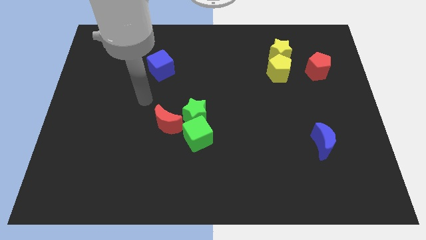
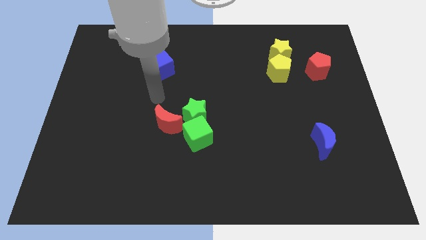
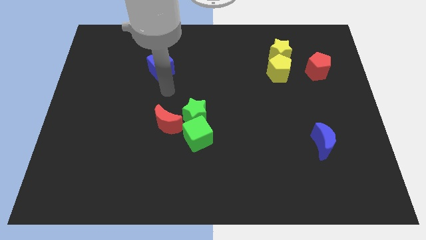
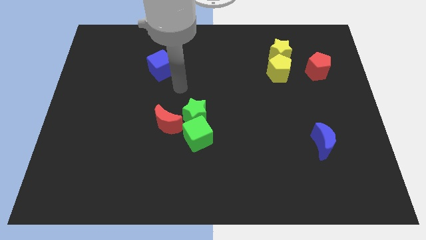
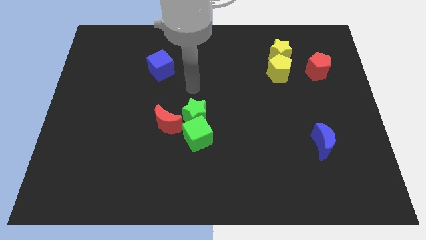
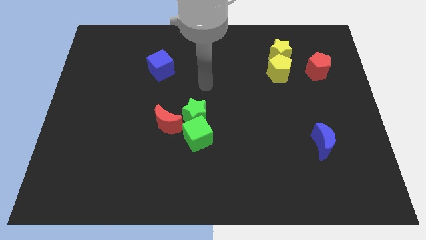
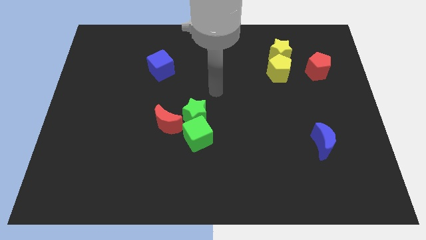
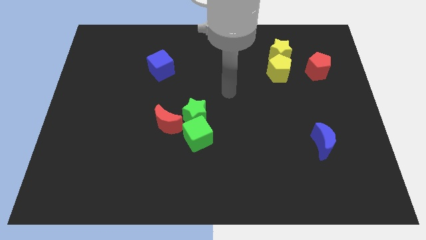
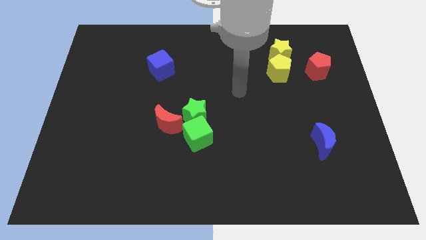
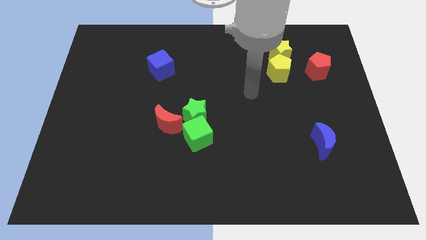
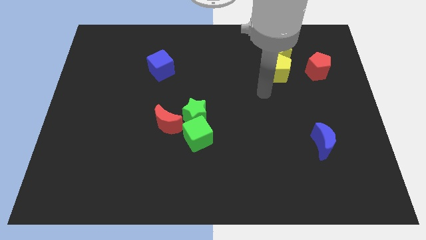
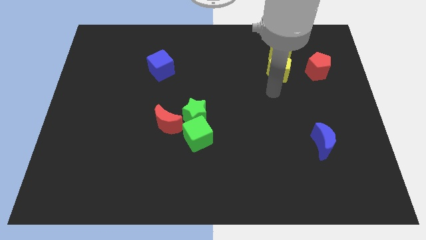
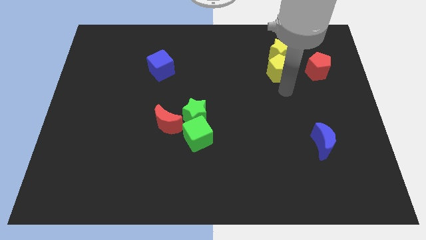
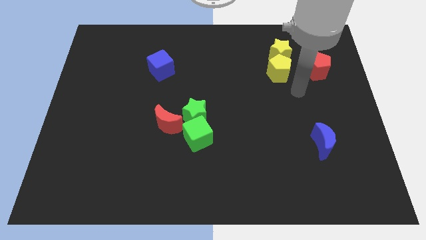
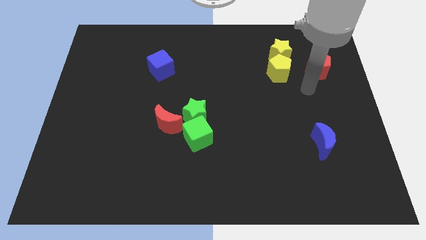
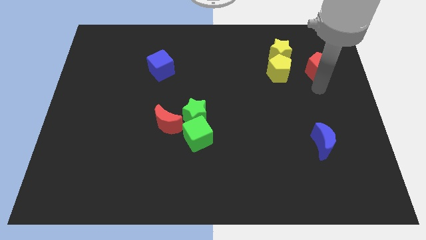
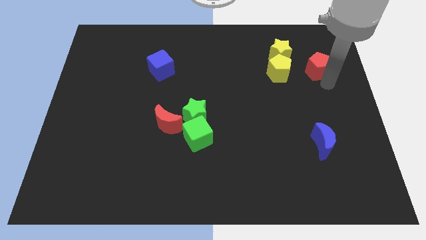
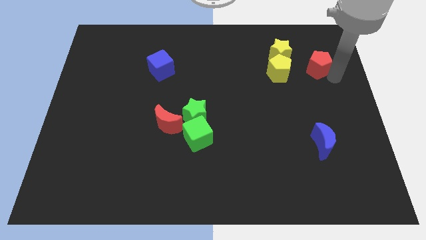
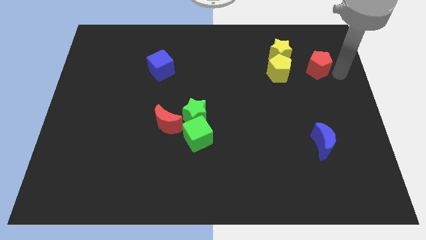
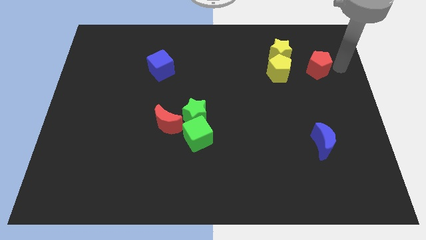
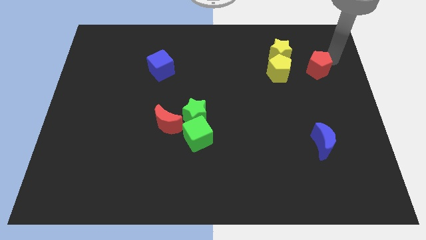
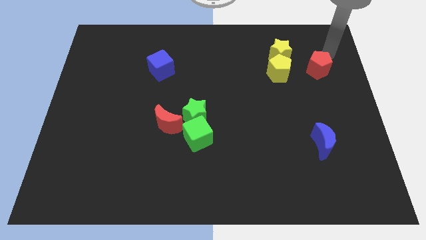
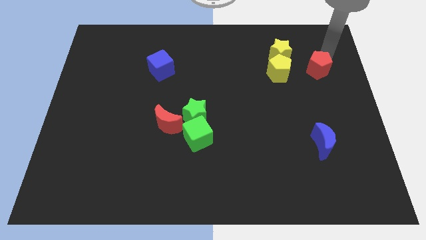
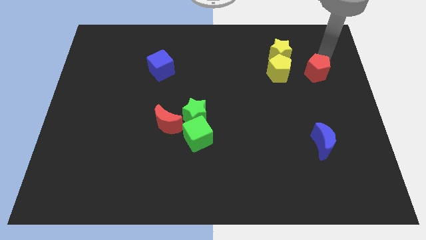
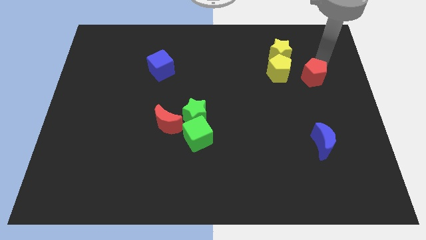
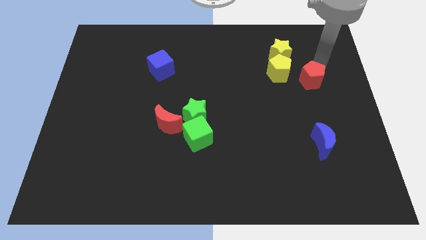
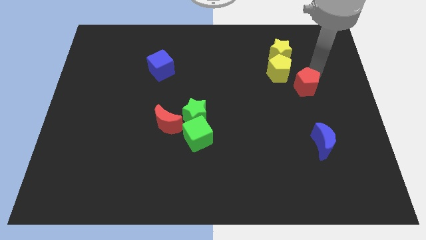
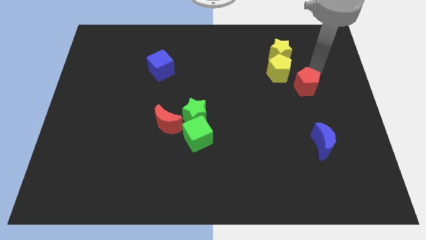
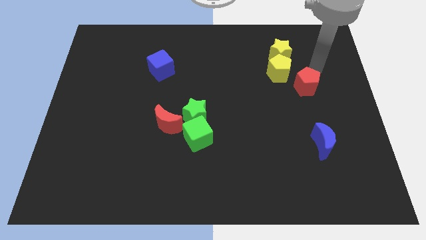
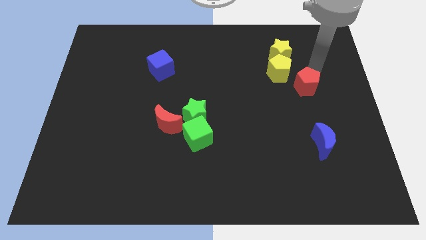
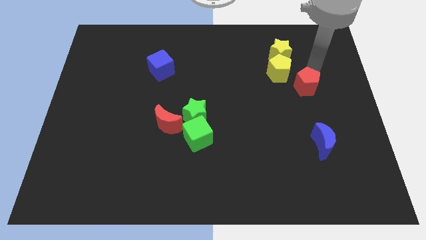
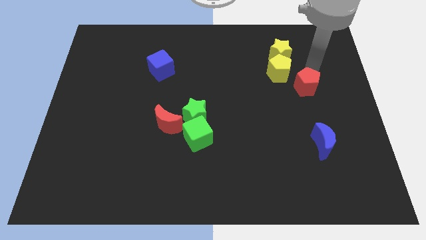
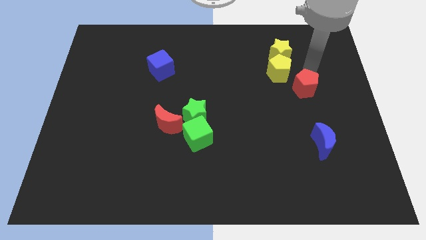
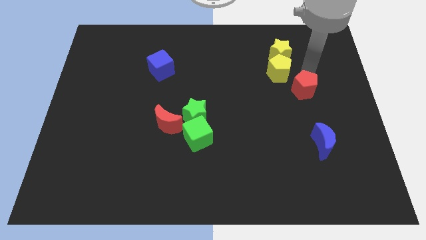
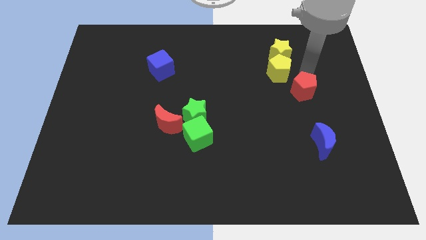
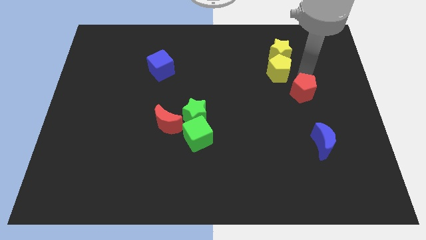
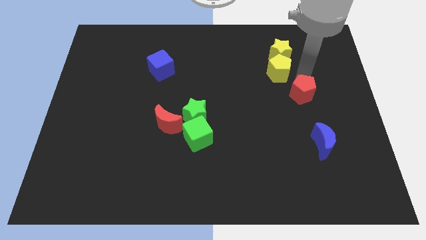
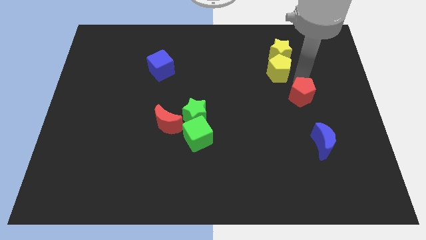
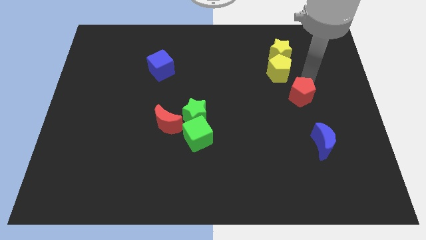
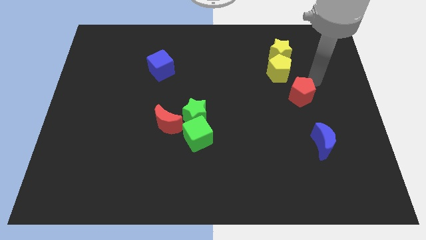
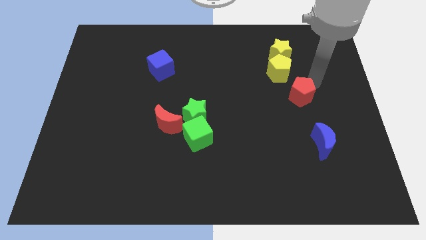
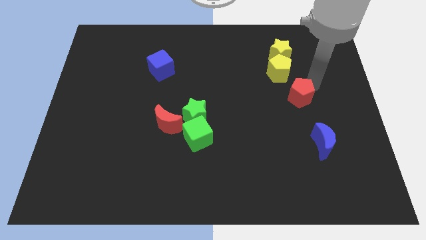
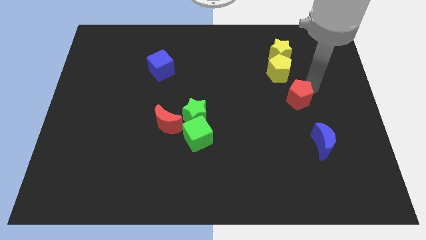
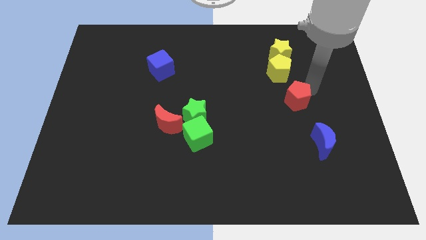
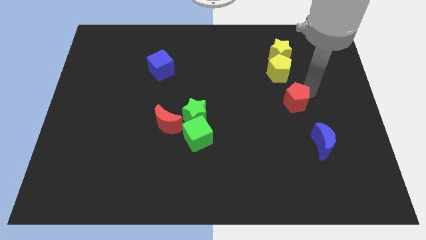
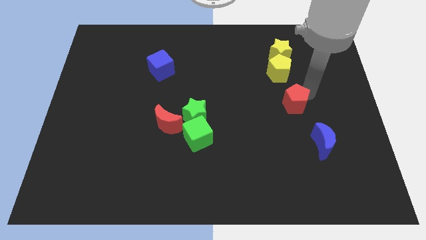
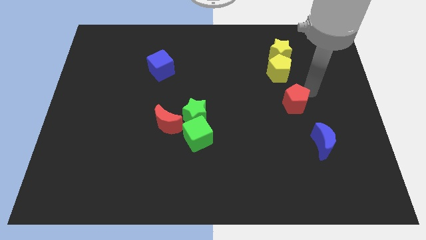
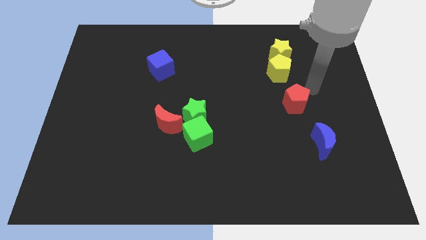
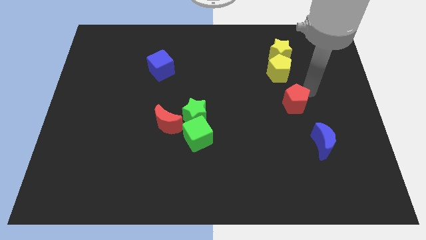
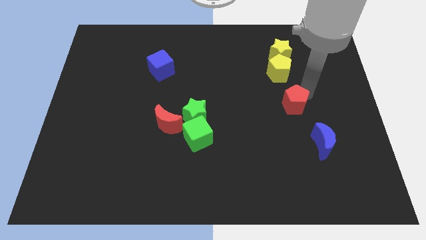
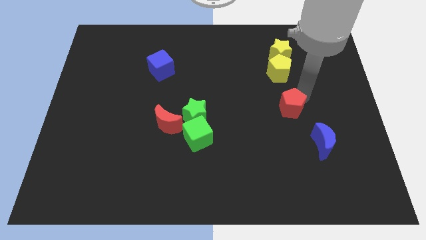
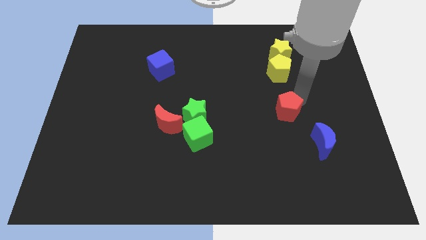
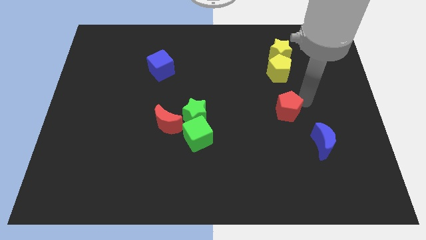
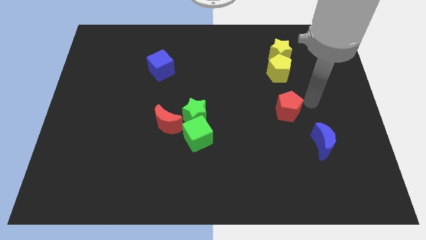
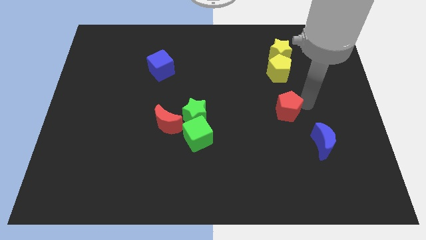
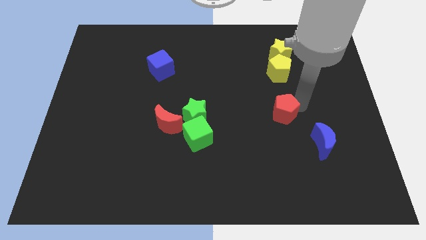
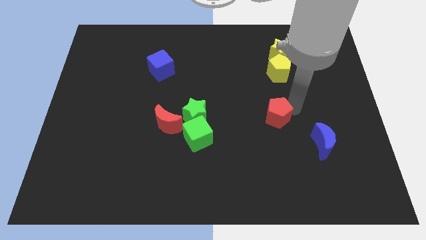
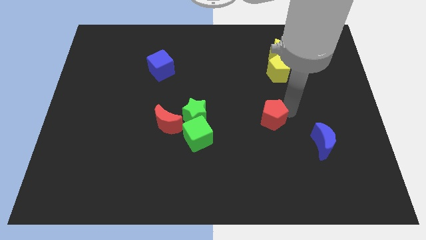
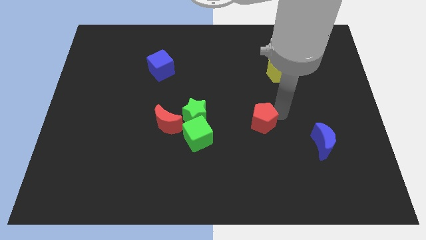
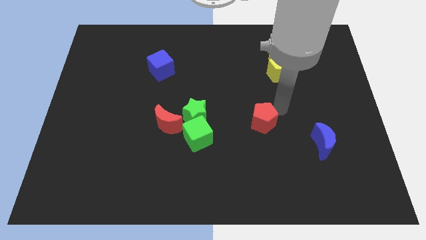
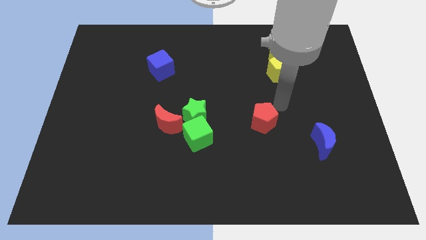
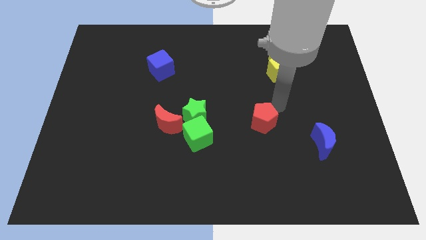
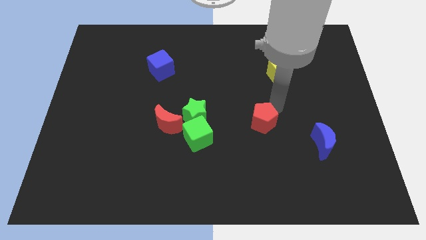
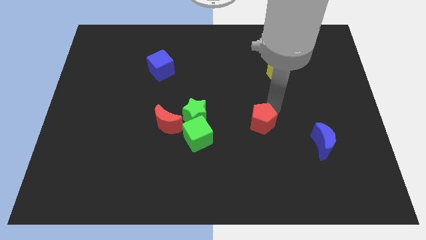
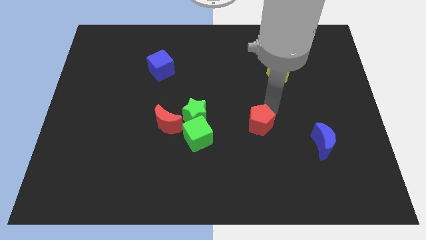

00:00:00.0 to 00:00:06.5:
put the red pentagon to the right side of the green cube
